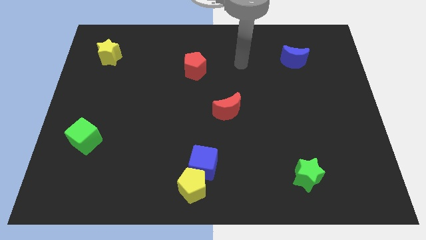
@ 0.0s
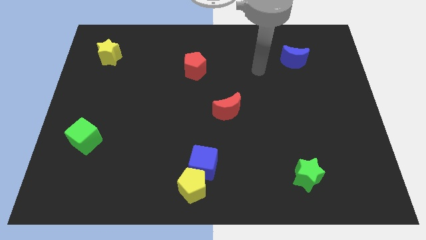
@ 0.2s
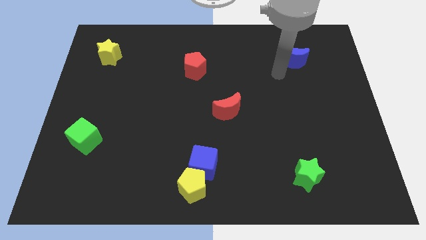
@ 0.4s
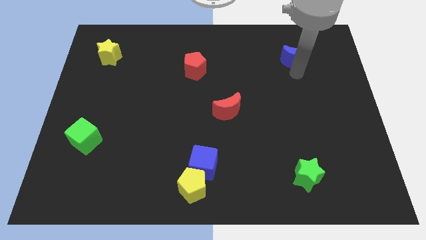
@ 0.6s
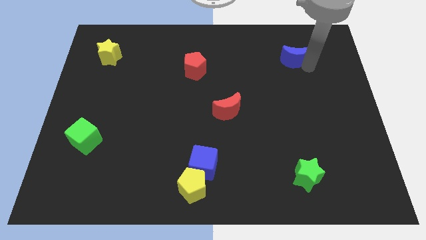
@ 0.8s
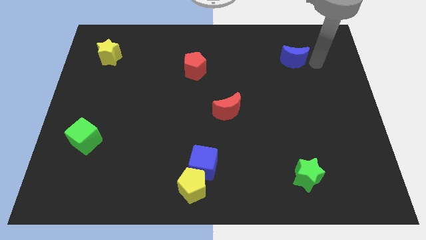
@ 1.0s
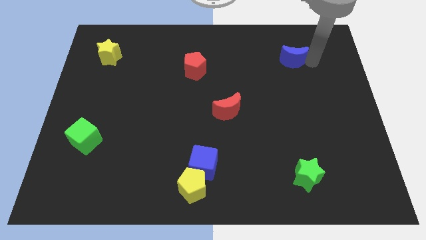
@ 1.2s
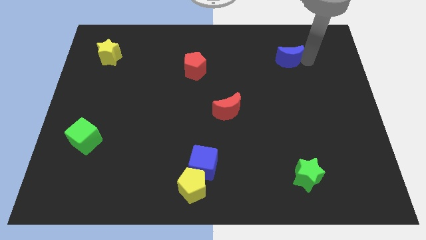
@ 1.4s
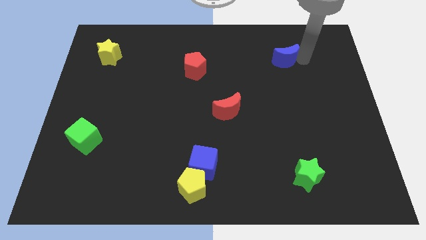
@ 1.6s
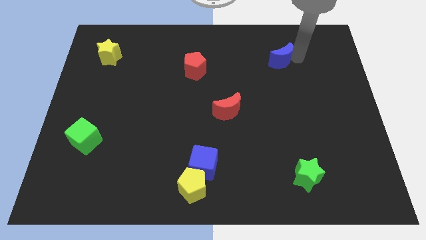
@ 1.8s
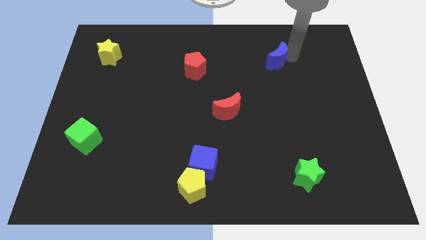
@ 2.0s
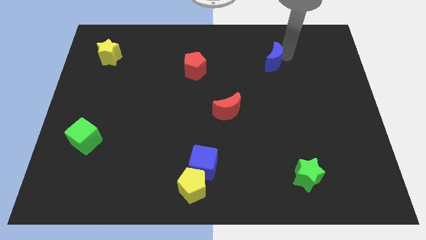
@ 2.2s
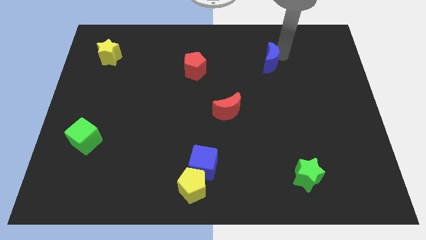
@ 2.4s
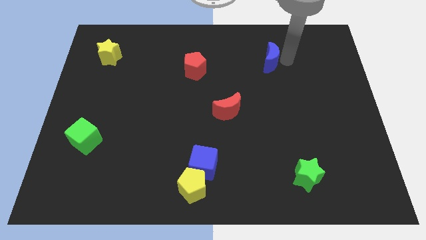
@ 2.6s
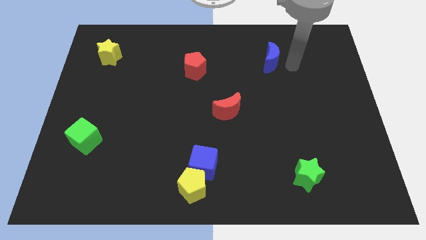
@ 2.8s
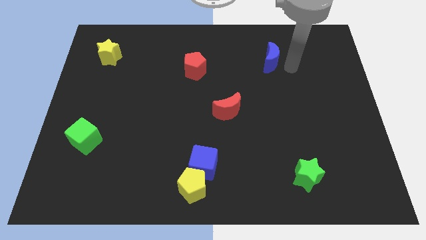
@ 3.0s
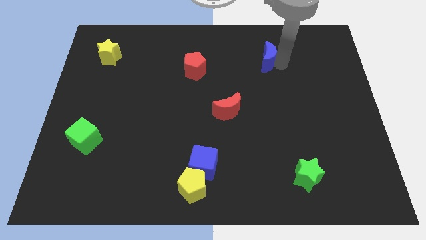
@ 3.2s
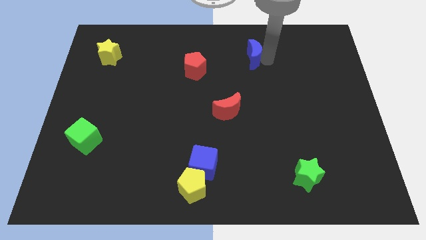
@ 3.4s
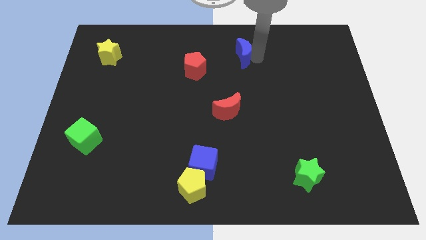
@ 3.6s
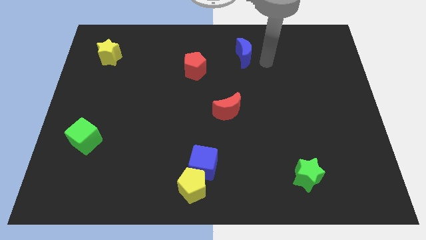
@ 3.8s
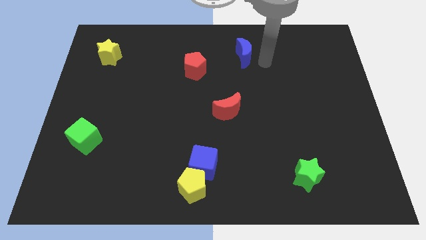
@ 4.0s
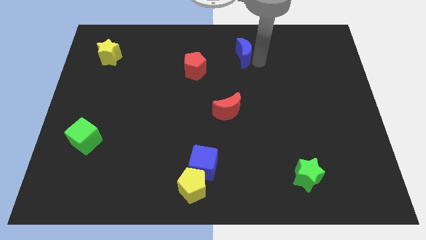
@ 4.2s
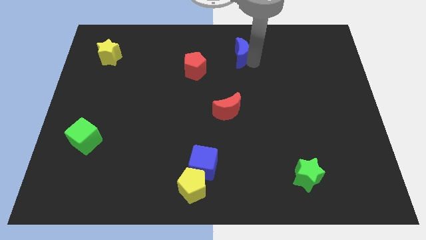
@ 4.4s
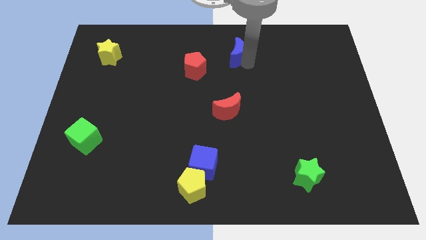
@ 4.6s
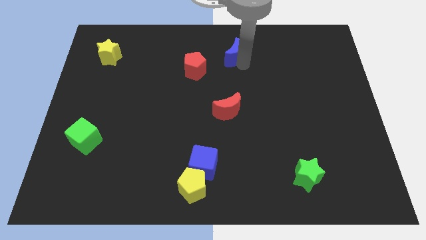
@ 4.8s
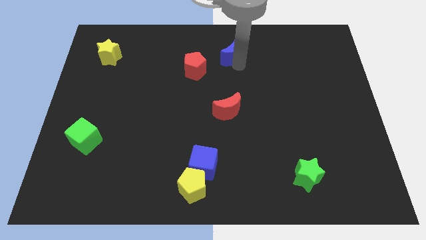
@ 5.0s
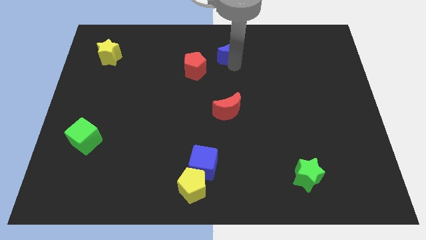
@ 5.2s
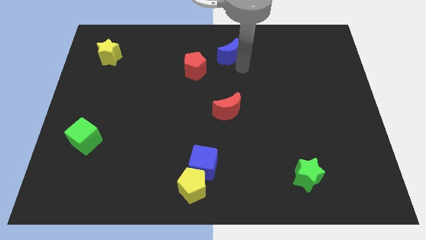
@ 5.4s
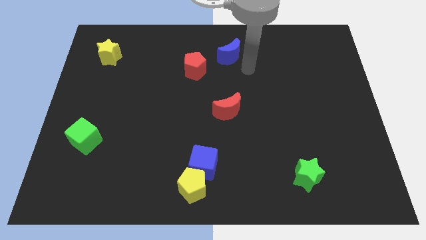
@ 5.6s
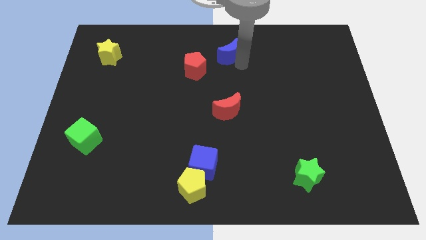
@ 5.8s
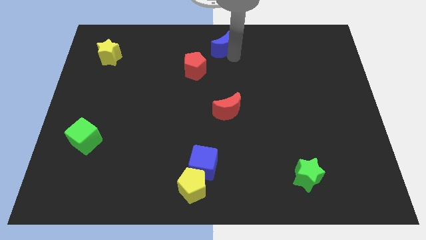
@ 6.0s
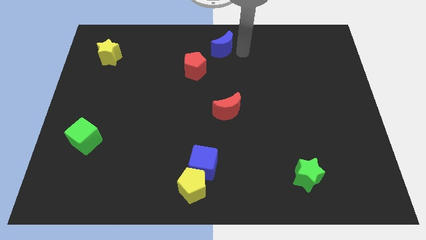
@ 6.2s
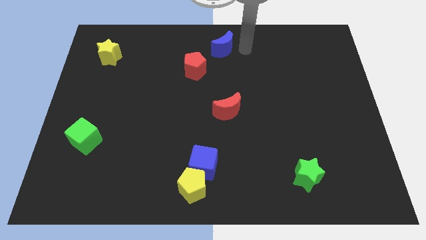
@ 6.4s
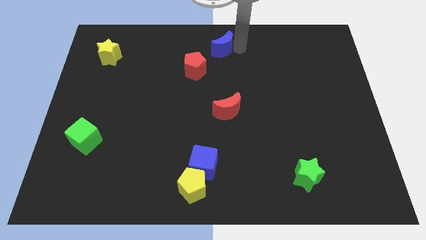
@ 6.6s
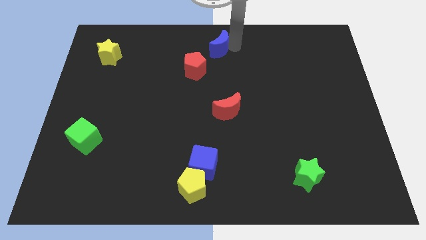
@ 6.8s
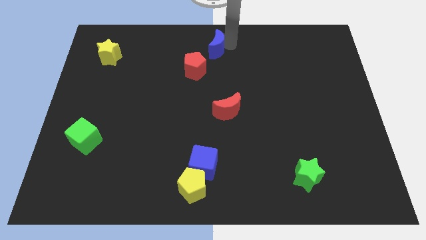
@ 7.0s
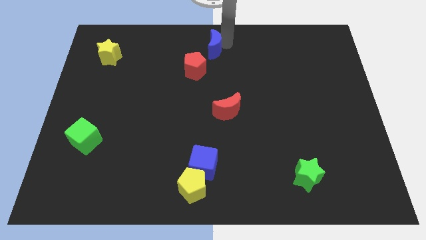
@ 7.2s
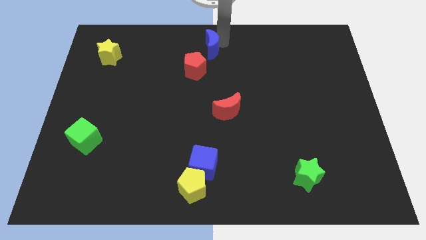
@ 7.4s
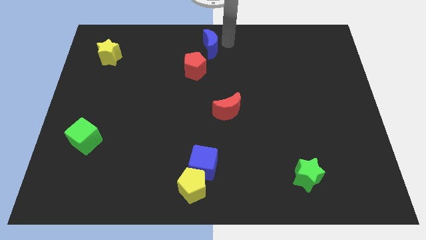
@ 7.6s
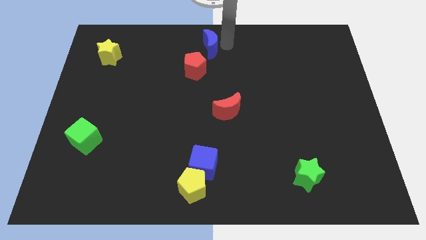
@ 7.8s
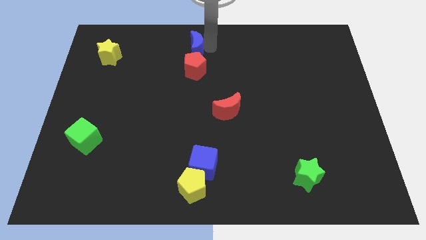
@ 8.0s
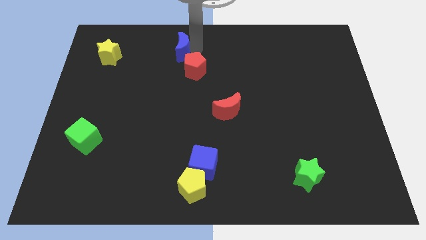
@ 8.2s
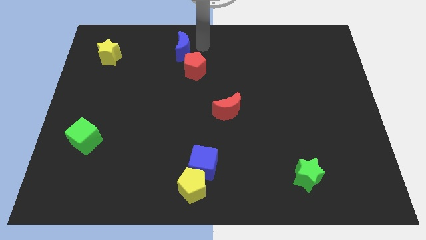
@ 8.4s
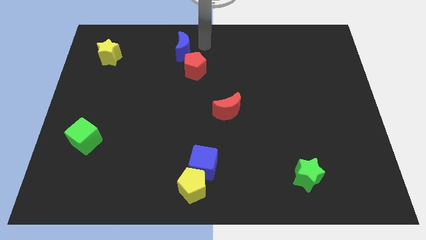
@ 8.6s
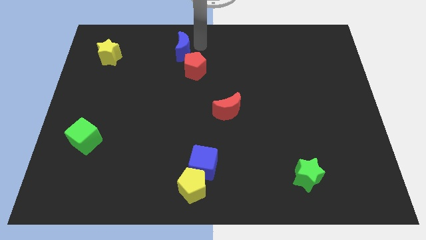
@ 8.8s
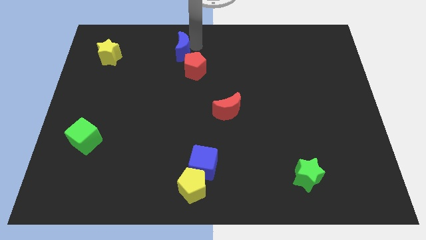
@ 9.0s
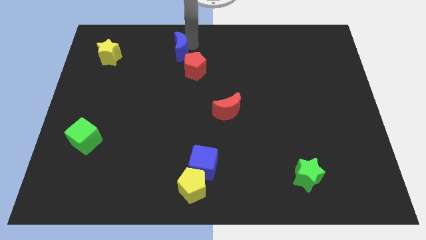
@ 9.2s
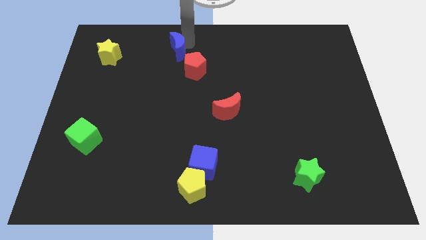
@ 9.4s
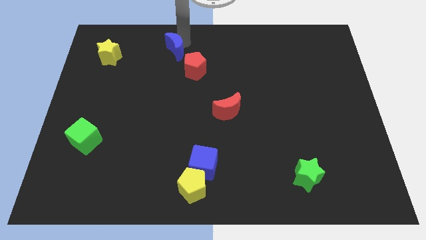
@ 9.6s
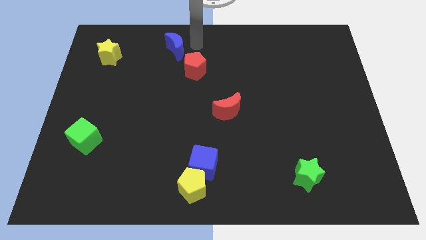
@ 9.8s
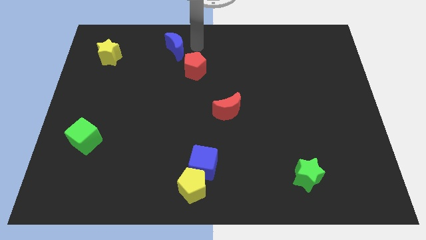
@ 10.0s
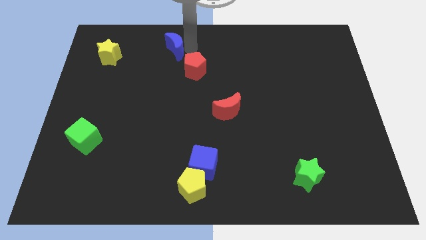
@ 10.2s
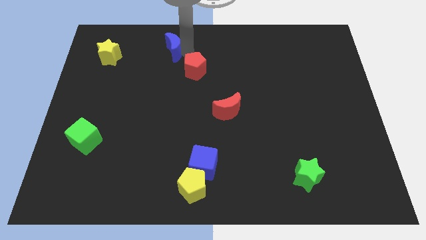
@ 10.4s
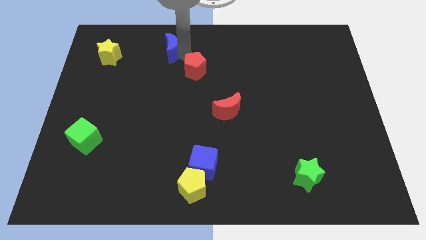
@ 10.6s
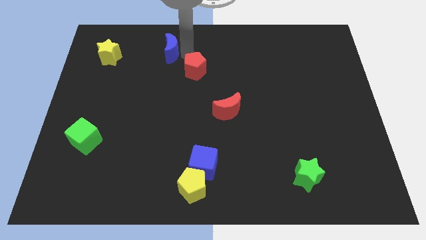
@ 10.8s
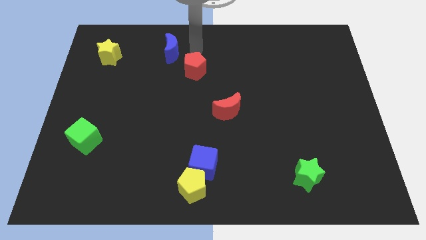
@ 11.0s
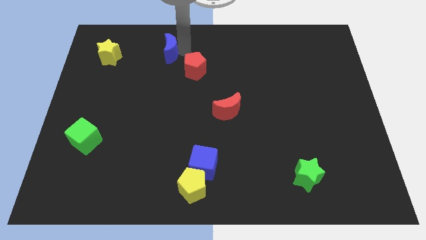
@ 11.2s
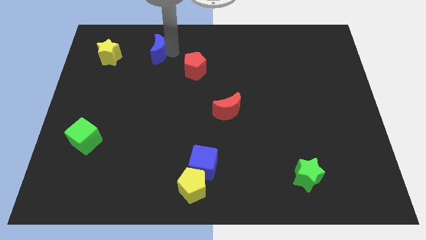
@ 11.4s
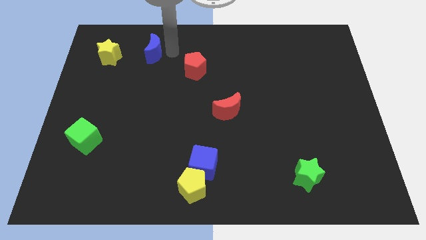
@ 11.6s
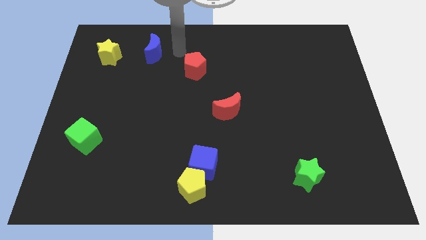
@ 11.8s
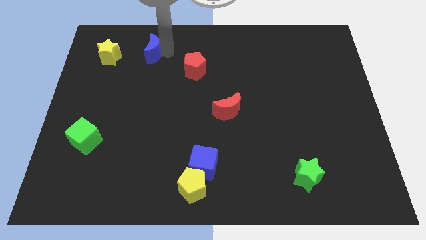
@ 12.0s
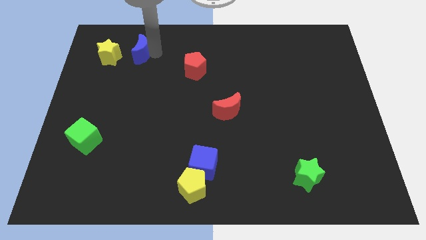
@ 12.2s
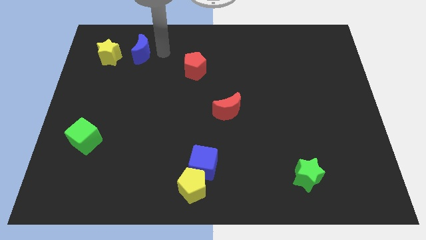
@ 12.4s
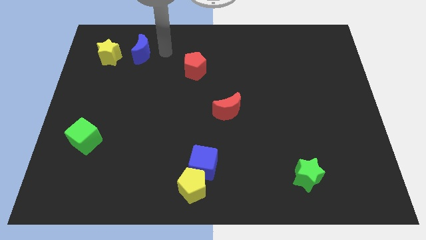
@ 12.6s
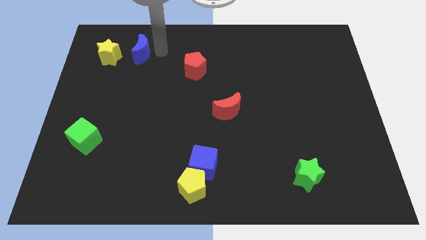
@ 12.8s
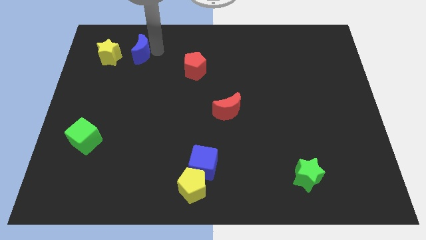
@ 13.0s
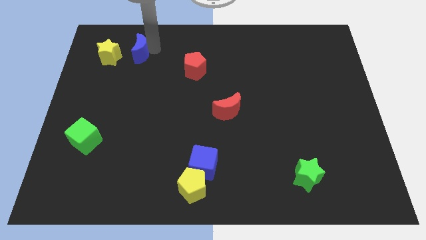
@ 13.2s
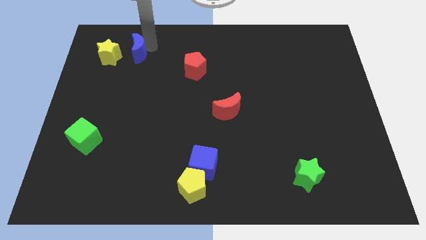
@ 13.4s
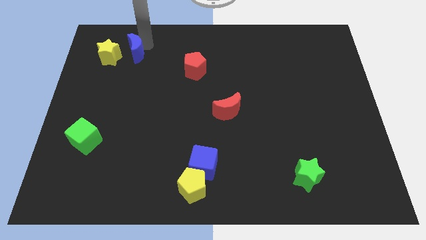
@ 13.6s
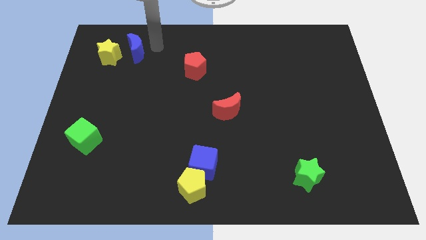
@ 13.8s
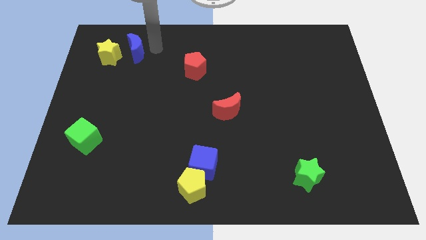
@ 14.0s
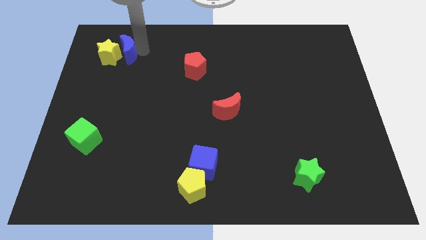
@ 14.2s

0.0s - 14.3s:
push the blue moon close to the yellow star
